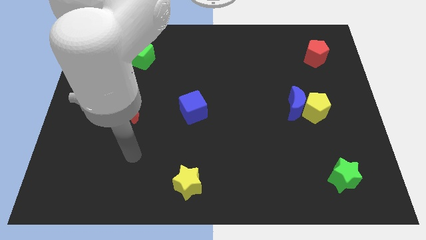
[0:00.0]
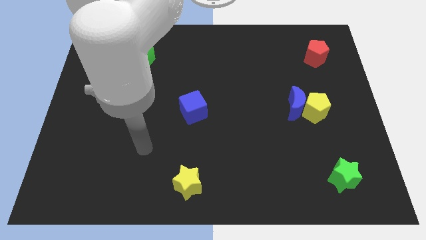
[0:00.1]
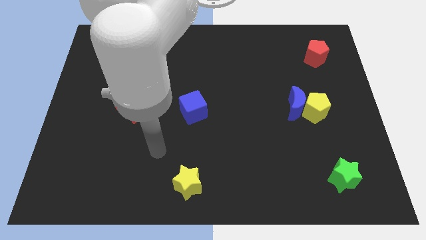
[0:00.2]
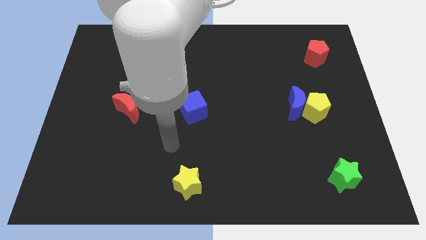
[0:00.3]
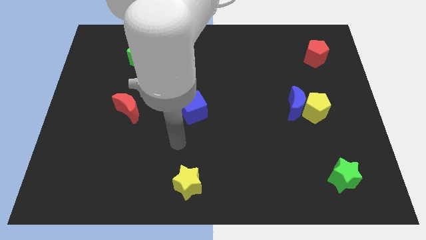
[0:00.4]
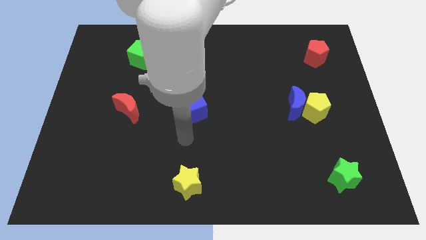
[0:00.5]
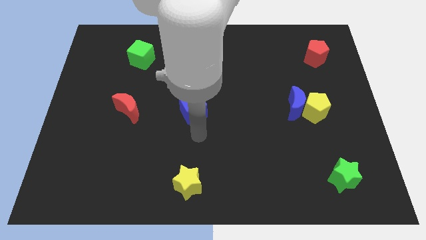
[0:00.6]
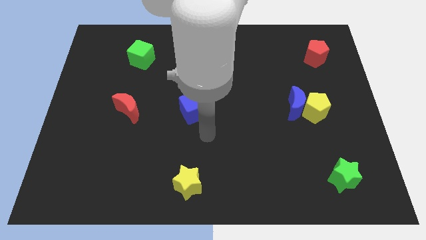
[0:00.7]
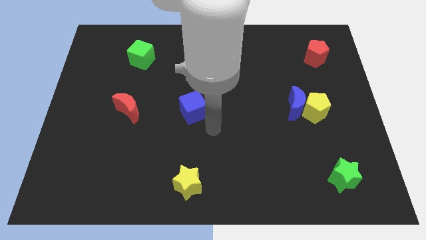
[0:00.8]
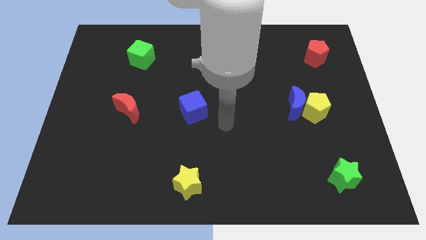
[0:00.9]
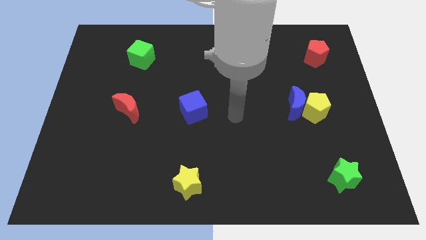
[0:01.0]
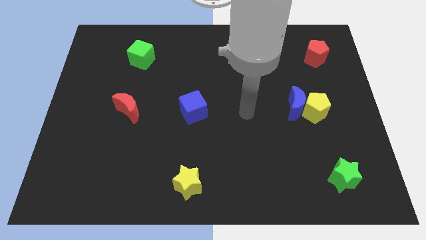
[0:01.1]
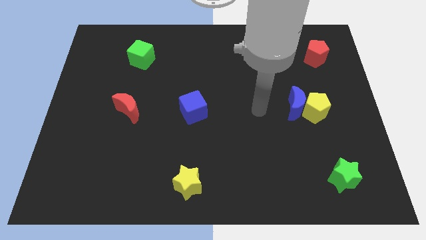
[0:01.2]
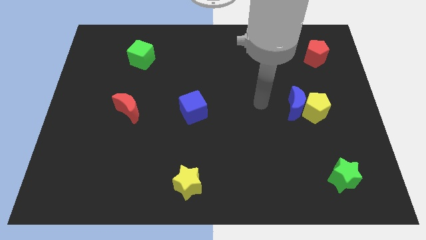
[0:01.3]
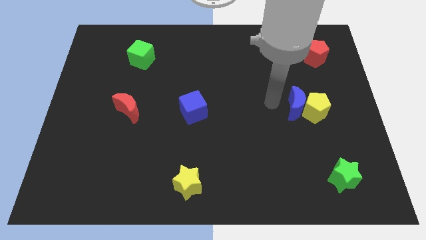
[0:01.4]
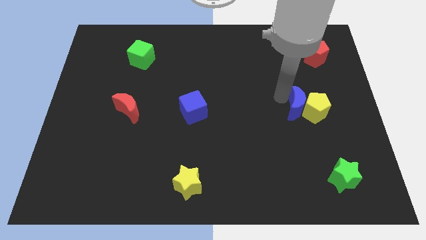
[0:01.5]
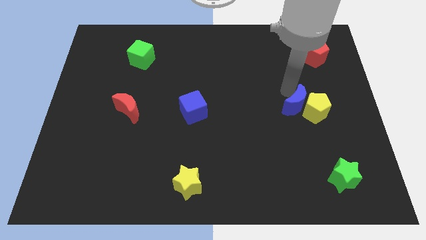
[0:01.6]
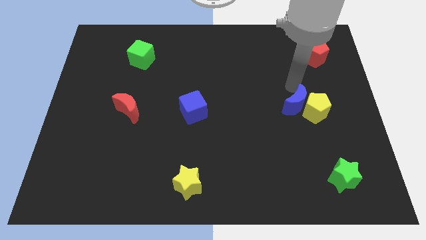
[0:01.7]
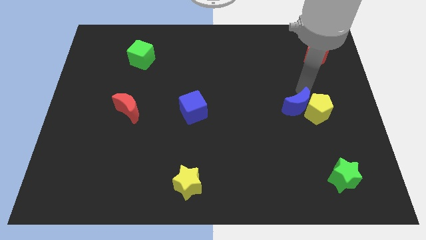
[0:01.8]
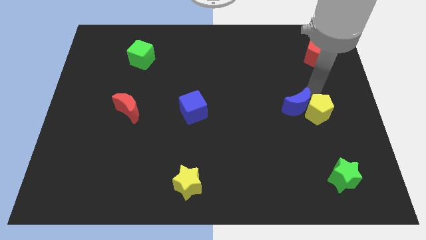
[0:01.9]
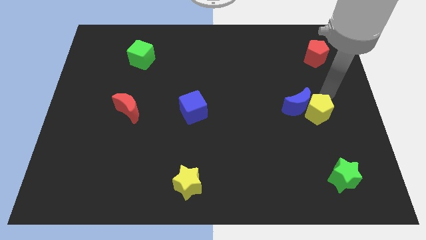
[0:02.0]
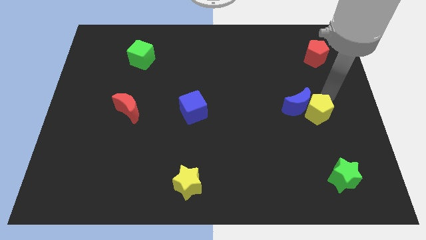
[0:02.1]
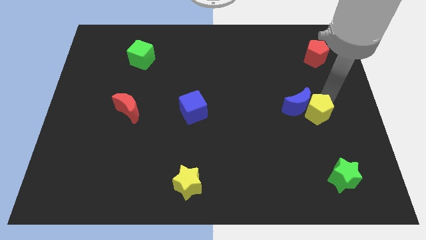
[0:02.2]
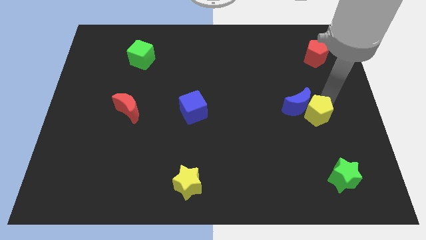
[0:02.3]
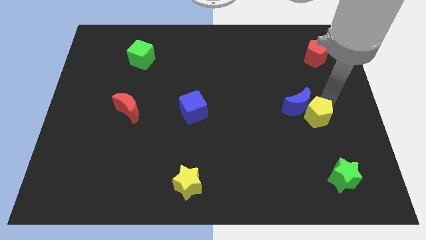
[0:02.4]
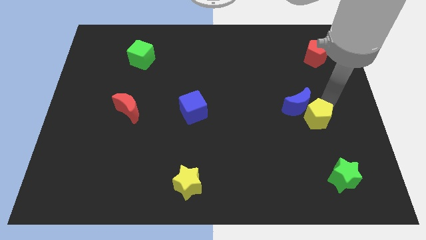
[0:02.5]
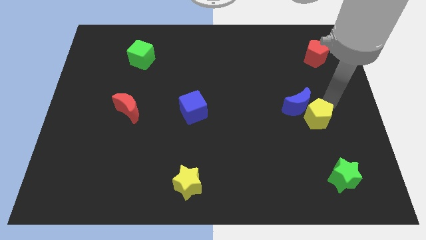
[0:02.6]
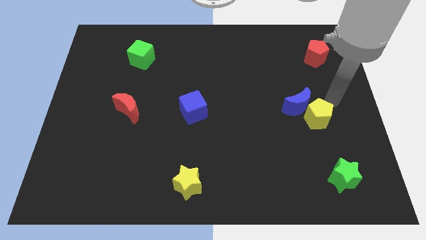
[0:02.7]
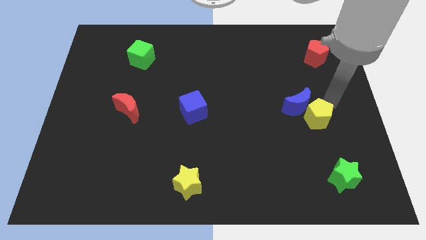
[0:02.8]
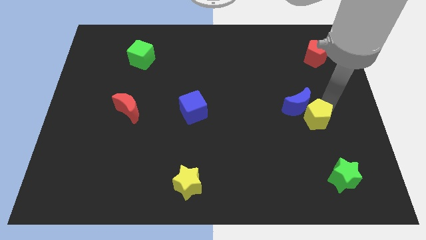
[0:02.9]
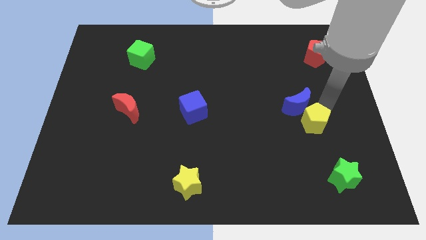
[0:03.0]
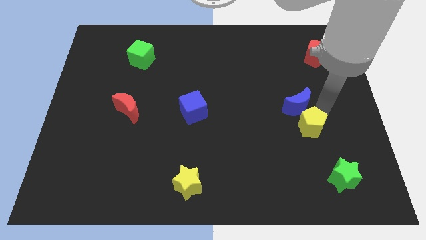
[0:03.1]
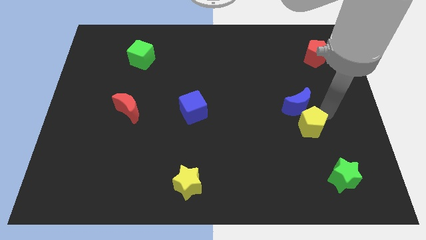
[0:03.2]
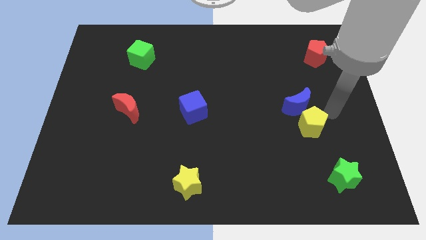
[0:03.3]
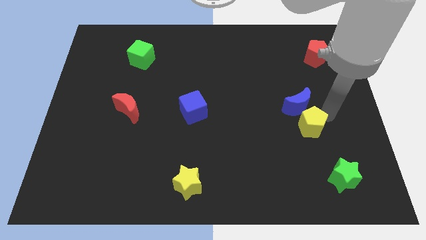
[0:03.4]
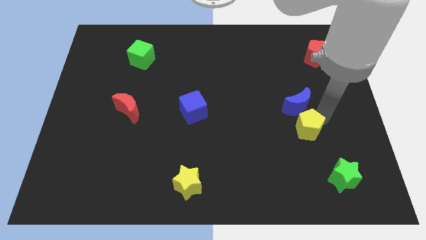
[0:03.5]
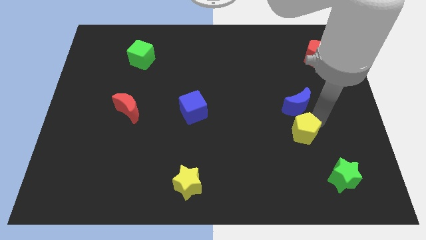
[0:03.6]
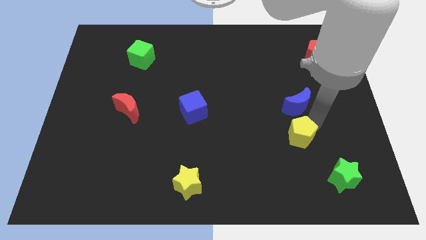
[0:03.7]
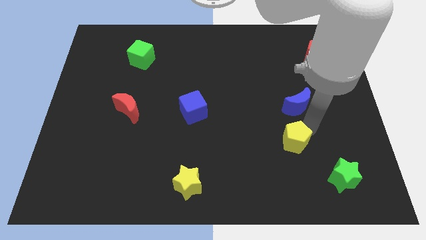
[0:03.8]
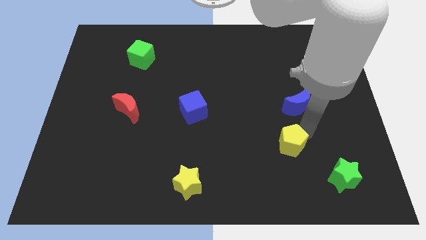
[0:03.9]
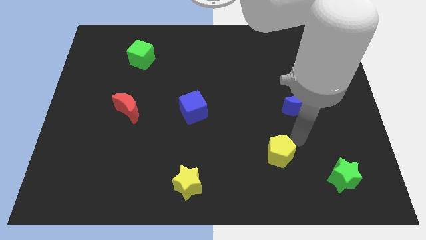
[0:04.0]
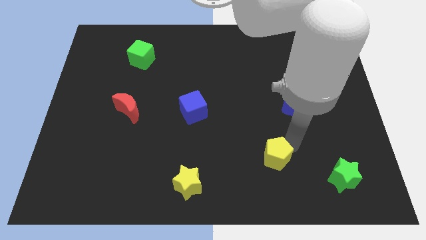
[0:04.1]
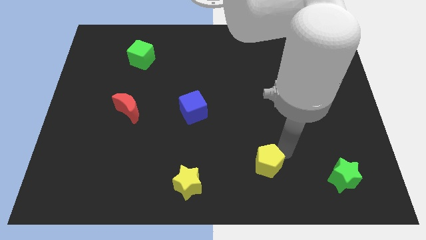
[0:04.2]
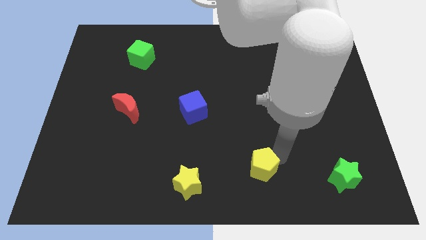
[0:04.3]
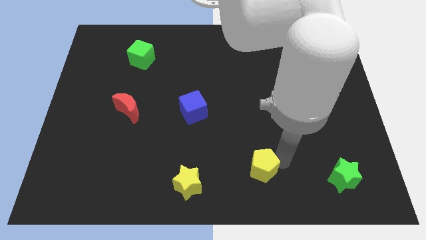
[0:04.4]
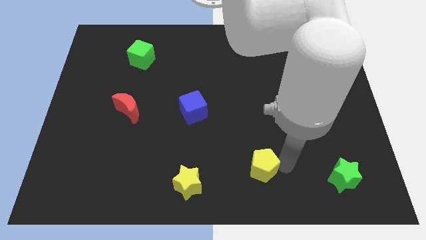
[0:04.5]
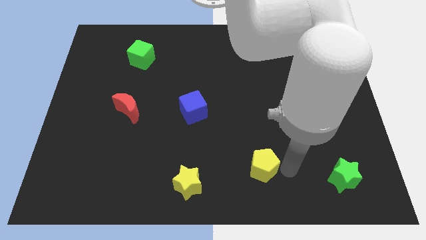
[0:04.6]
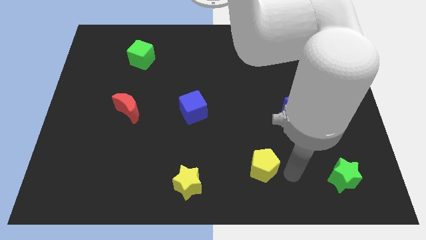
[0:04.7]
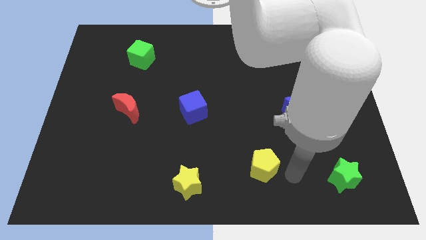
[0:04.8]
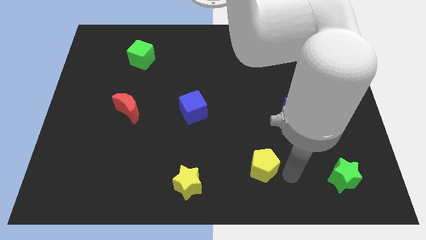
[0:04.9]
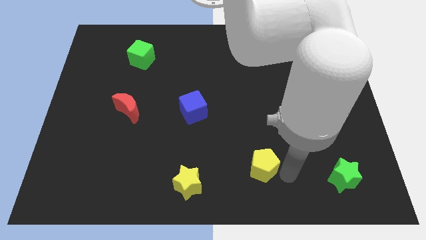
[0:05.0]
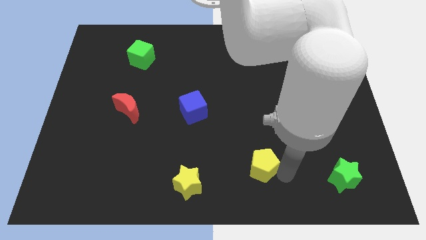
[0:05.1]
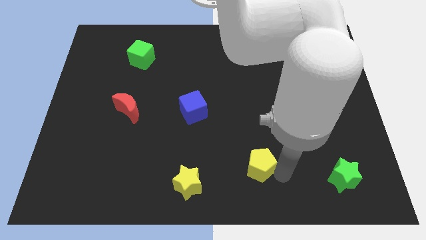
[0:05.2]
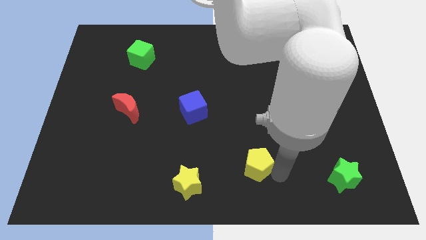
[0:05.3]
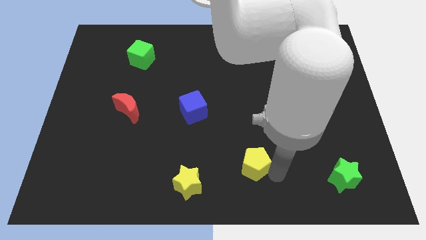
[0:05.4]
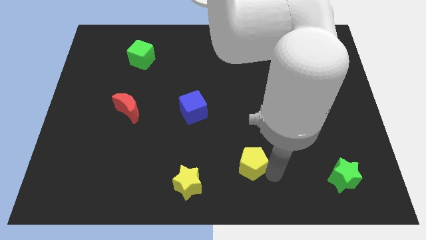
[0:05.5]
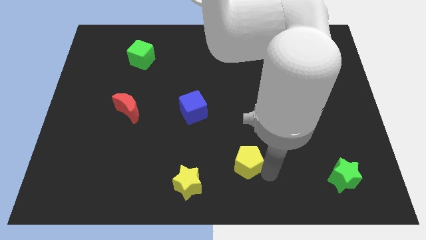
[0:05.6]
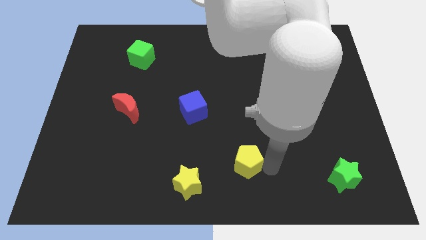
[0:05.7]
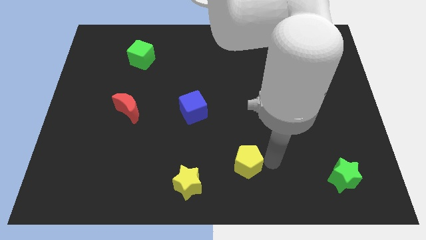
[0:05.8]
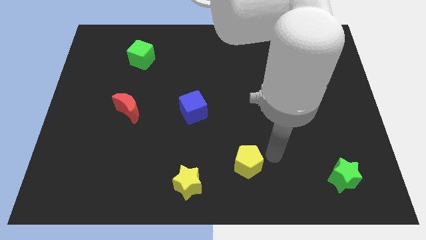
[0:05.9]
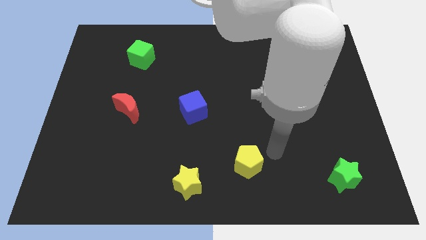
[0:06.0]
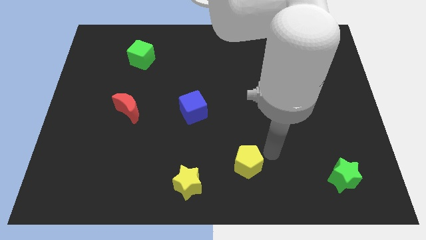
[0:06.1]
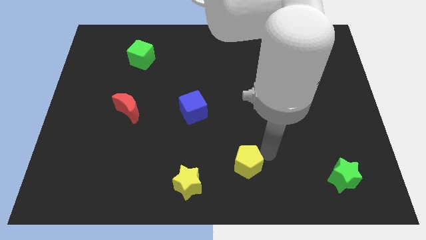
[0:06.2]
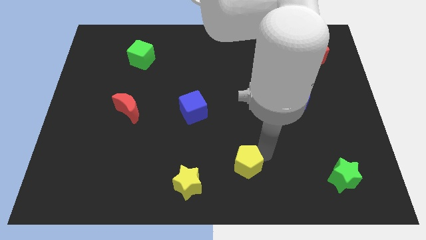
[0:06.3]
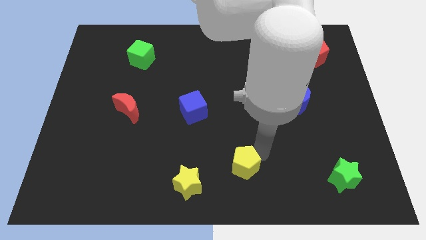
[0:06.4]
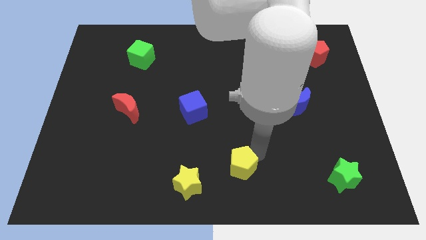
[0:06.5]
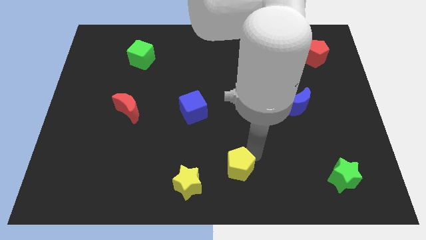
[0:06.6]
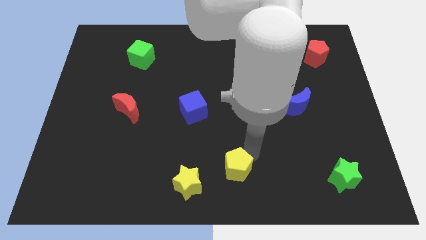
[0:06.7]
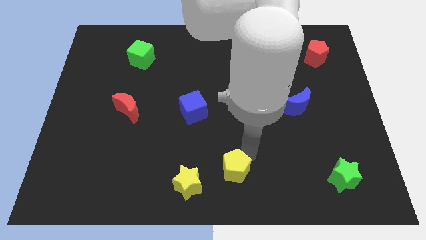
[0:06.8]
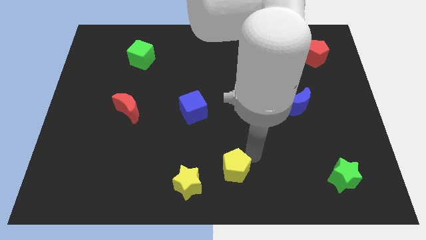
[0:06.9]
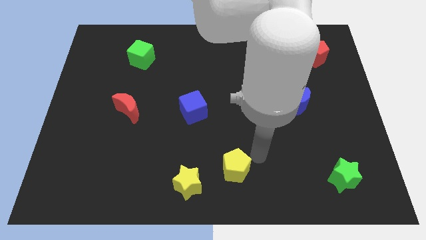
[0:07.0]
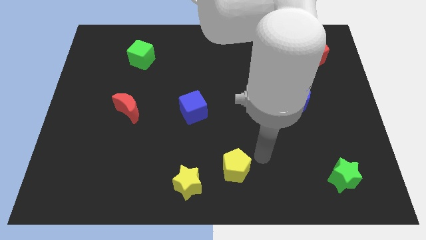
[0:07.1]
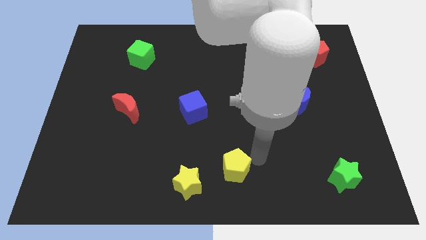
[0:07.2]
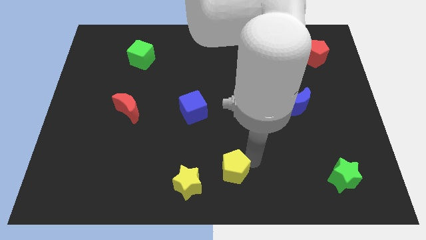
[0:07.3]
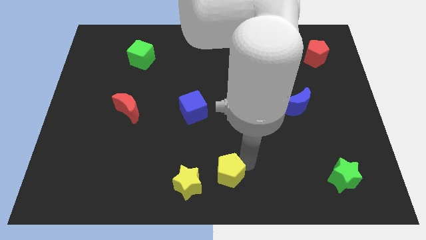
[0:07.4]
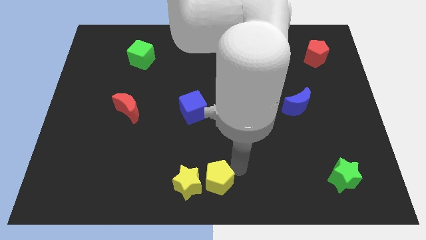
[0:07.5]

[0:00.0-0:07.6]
push the yellow pentagon to the yellow star

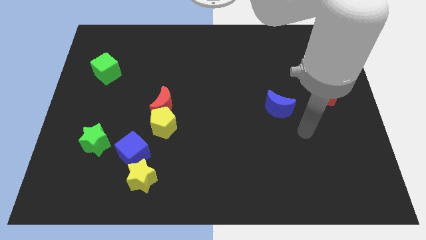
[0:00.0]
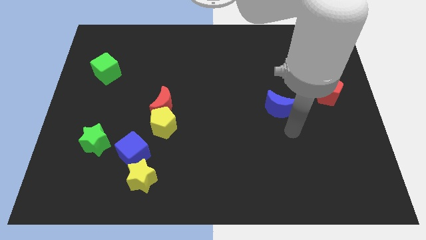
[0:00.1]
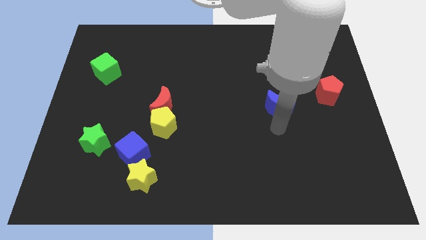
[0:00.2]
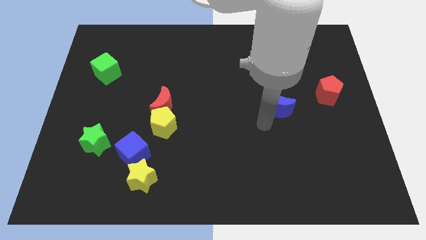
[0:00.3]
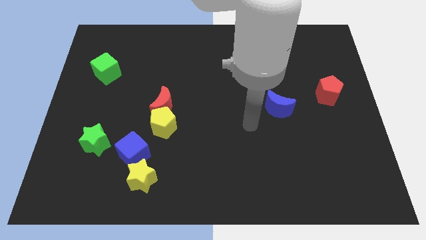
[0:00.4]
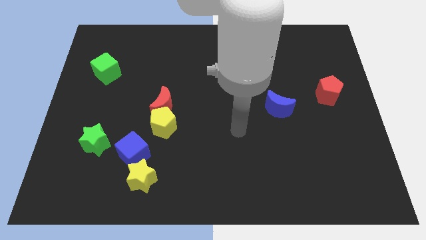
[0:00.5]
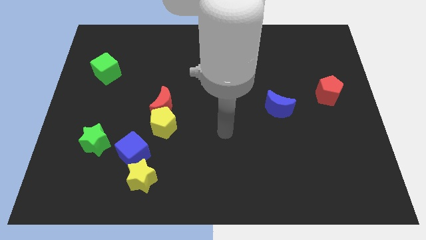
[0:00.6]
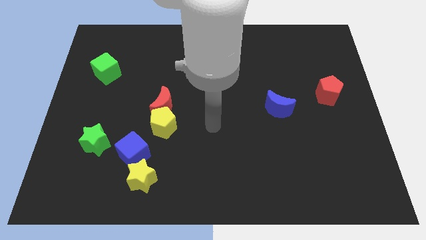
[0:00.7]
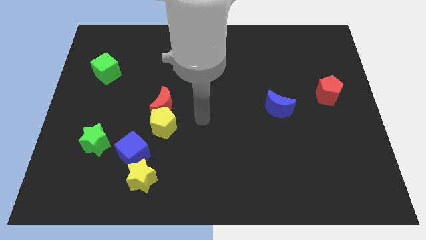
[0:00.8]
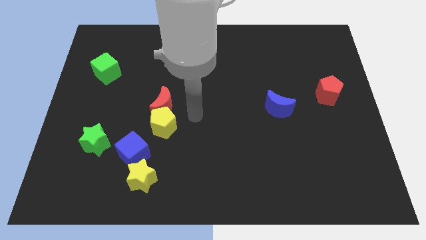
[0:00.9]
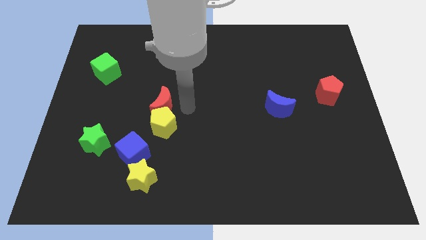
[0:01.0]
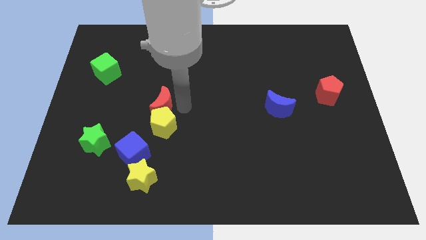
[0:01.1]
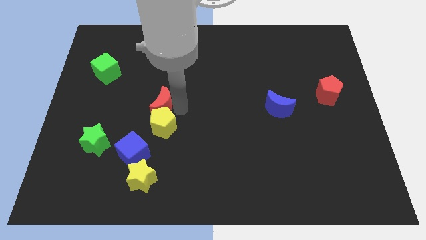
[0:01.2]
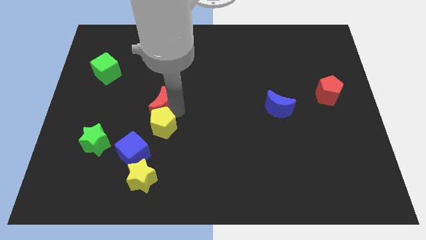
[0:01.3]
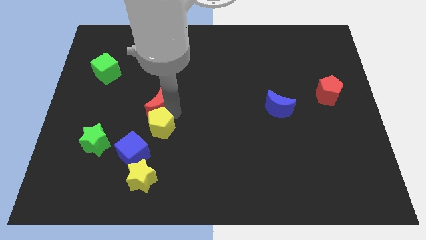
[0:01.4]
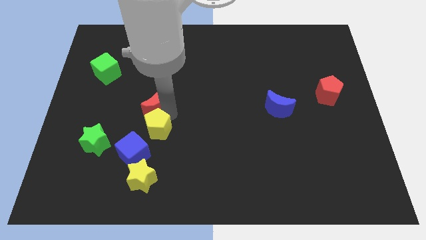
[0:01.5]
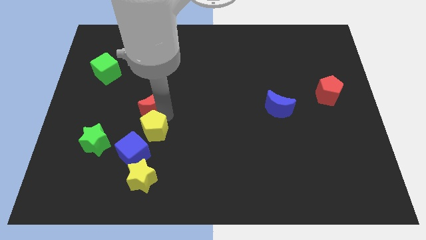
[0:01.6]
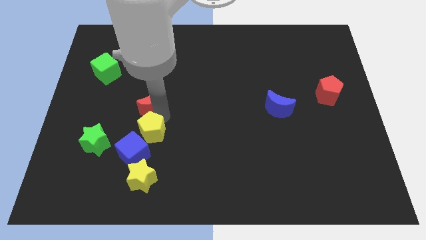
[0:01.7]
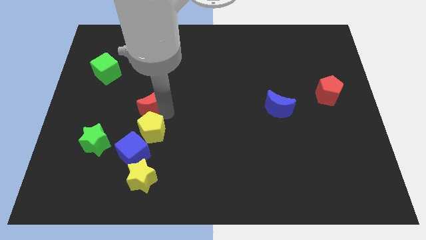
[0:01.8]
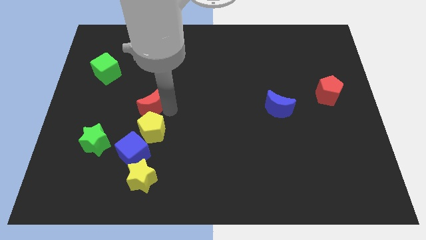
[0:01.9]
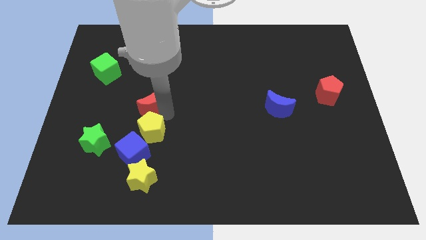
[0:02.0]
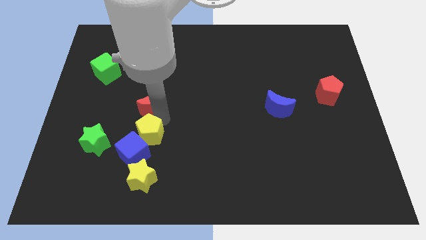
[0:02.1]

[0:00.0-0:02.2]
move the yellow pentagon towards the blue cube
